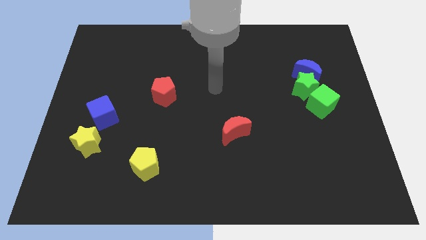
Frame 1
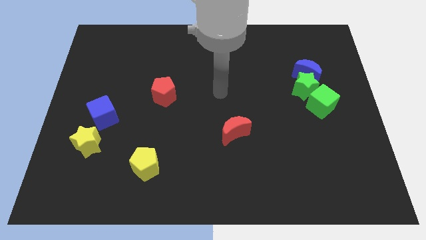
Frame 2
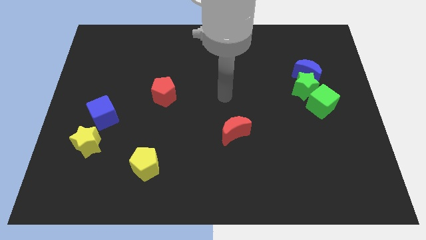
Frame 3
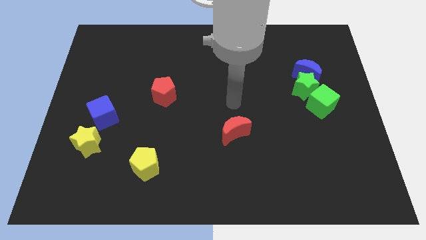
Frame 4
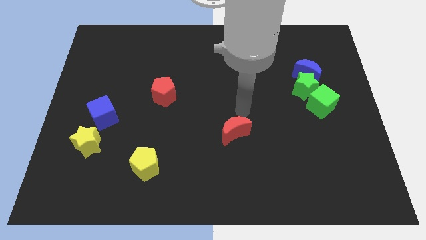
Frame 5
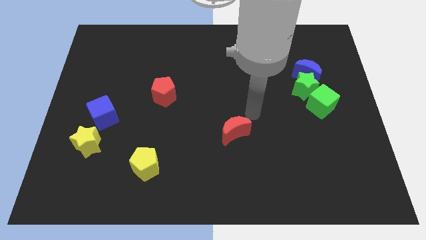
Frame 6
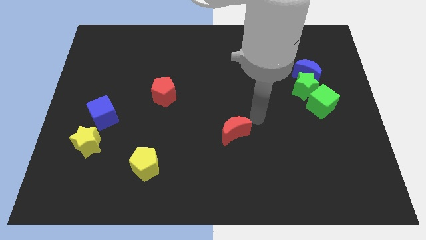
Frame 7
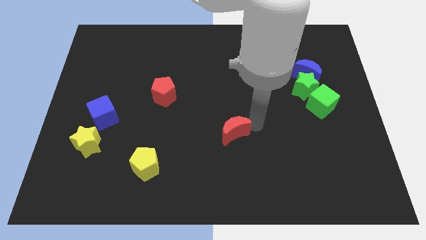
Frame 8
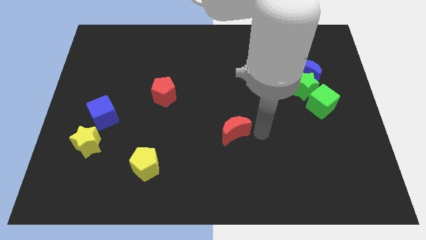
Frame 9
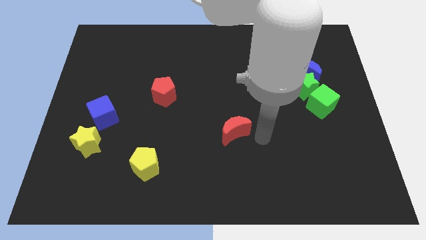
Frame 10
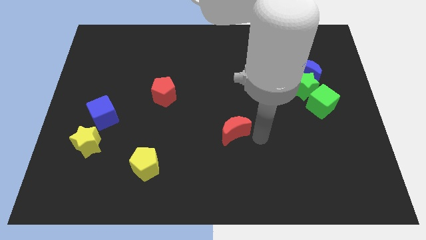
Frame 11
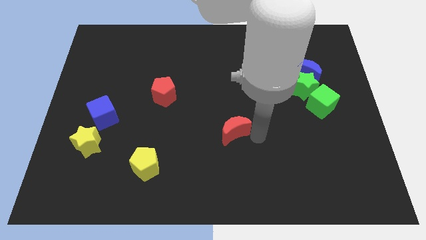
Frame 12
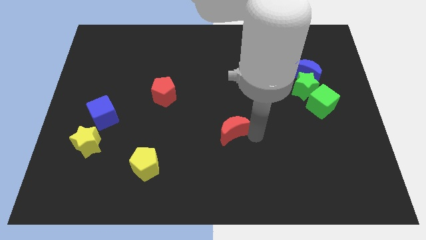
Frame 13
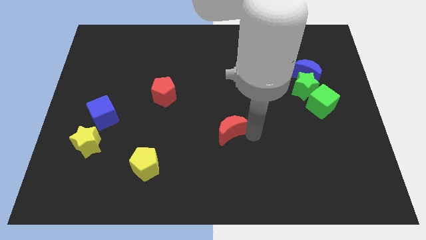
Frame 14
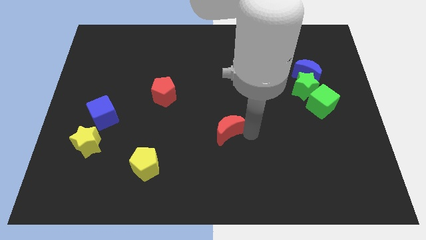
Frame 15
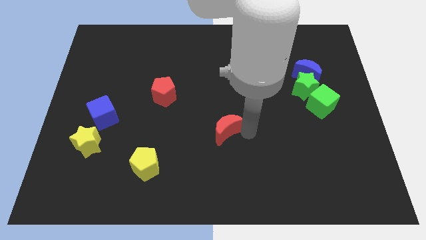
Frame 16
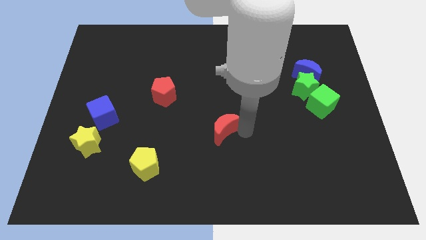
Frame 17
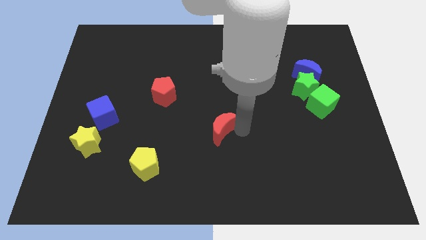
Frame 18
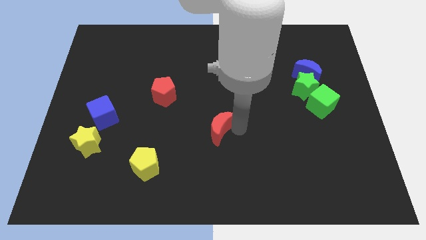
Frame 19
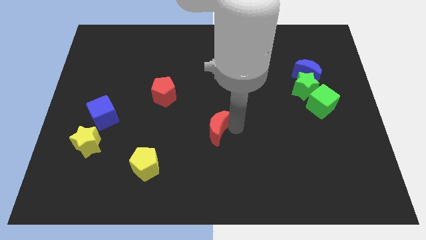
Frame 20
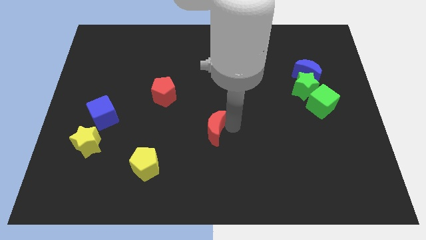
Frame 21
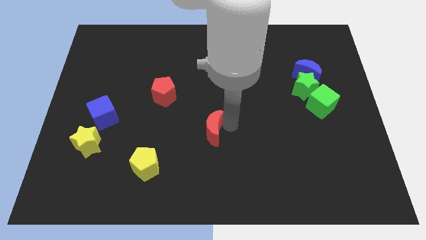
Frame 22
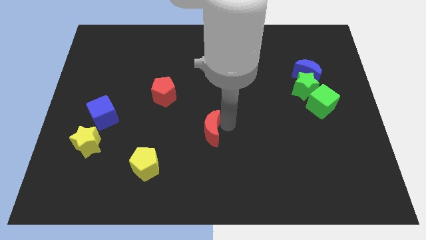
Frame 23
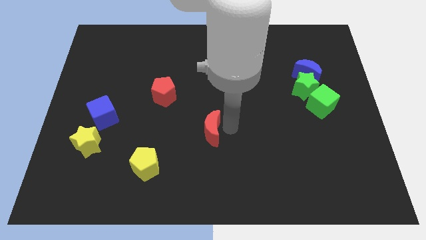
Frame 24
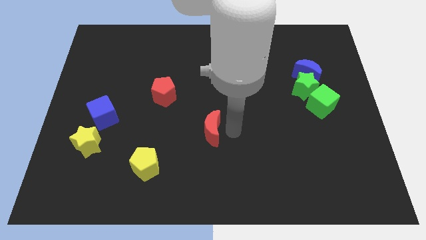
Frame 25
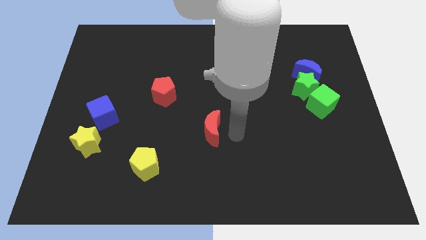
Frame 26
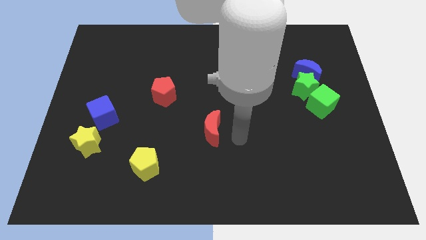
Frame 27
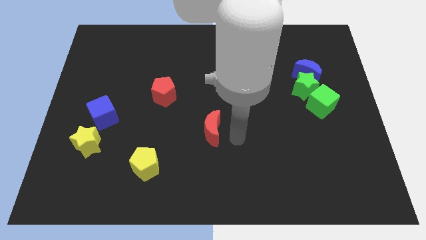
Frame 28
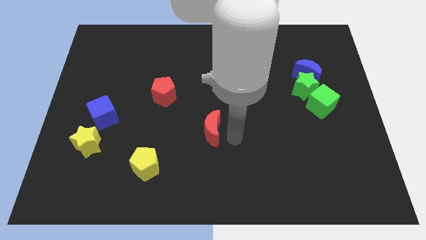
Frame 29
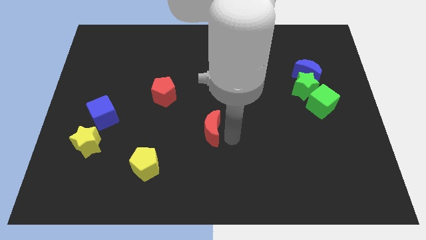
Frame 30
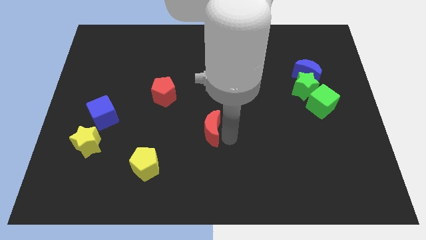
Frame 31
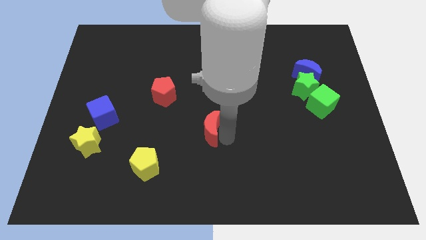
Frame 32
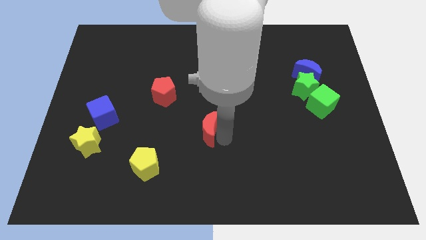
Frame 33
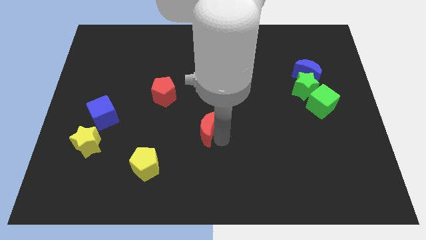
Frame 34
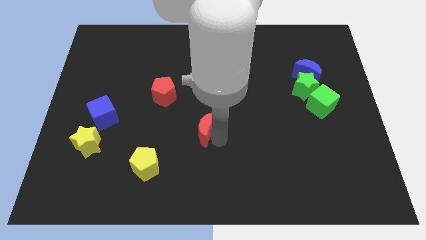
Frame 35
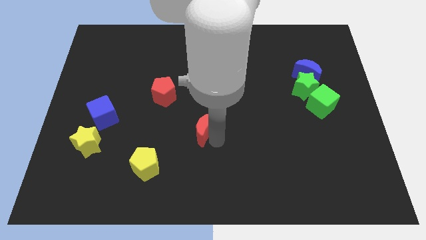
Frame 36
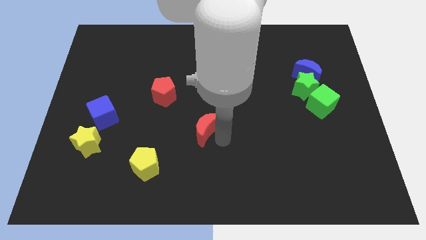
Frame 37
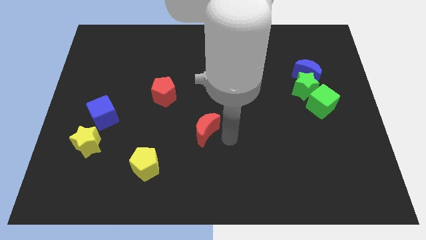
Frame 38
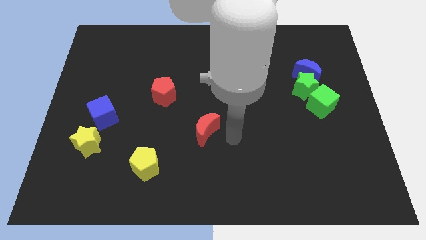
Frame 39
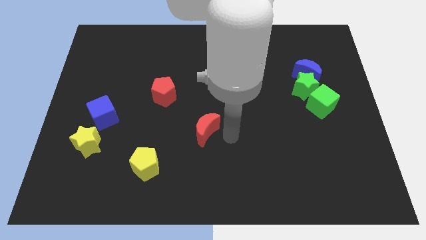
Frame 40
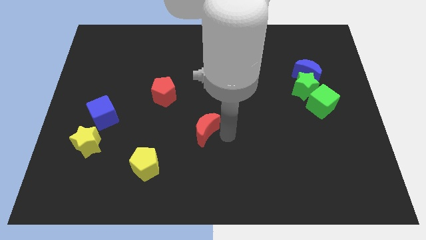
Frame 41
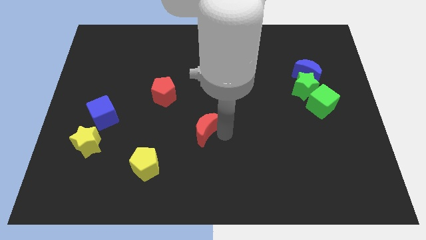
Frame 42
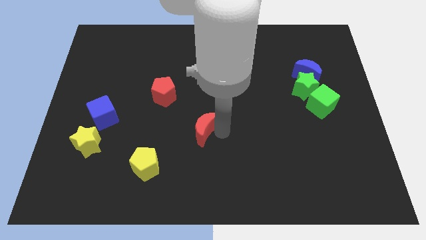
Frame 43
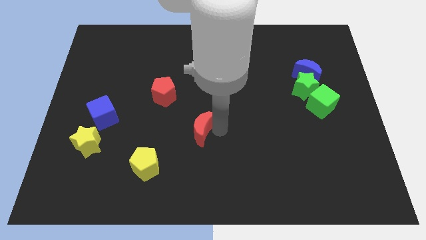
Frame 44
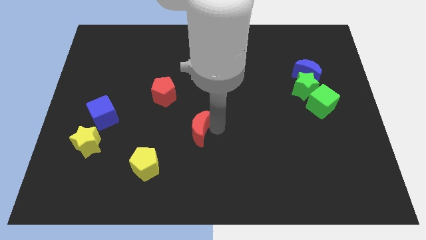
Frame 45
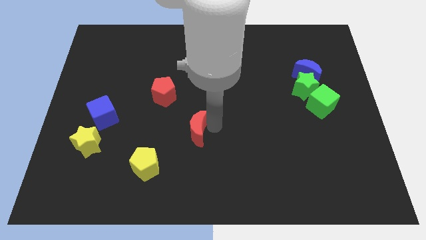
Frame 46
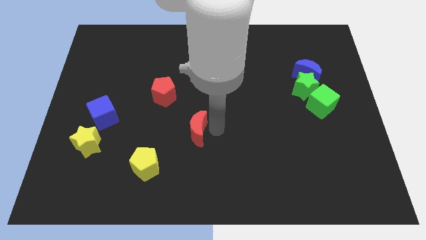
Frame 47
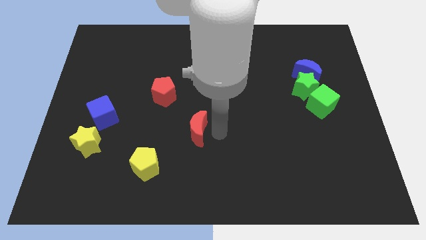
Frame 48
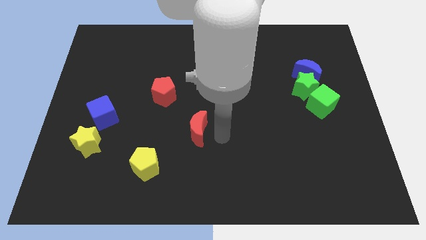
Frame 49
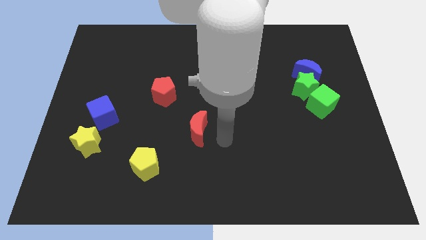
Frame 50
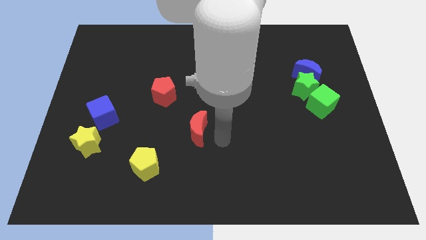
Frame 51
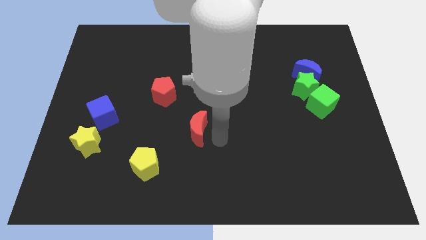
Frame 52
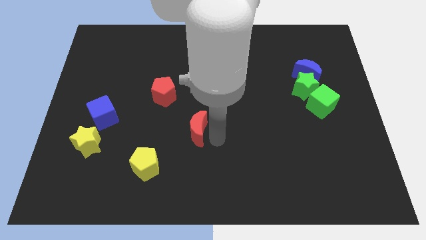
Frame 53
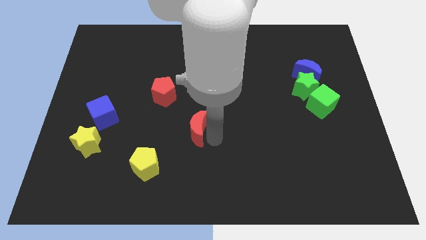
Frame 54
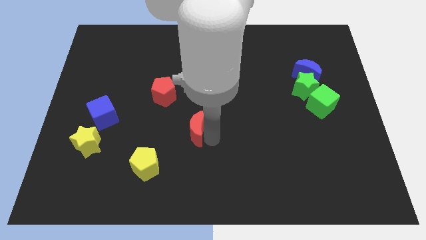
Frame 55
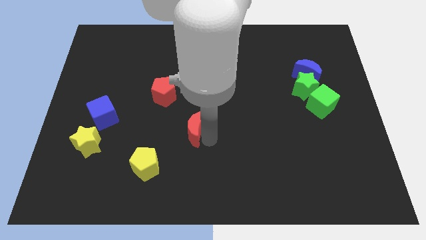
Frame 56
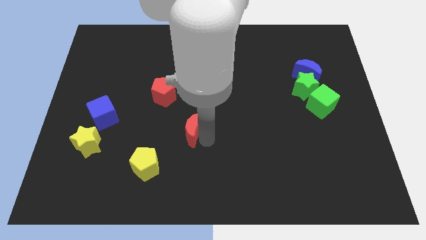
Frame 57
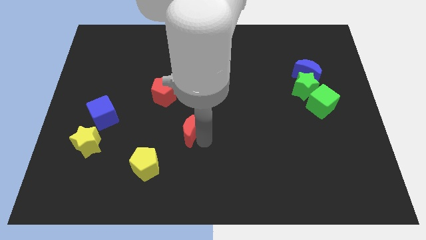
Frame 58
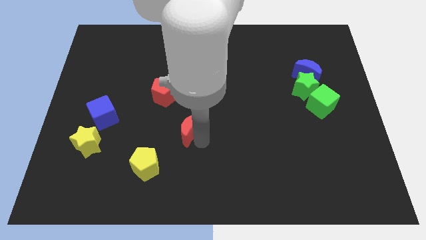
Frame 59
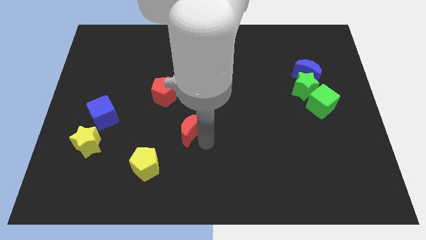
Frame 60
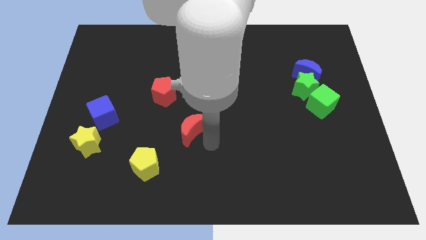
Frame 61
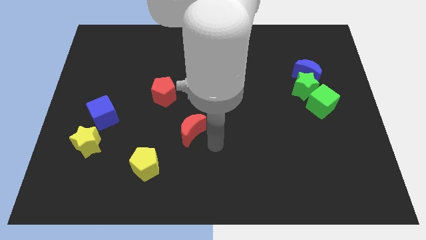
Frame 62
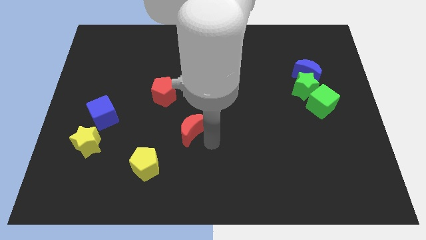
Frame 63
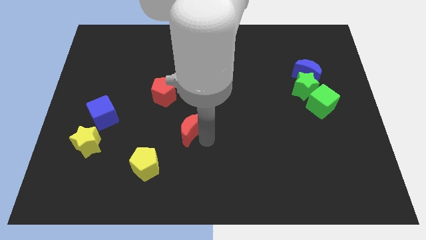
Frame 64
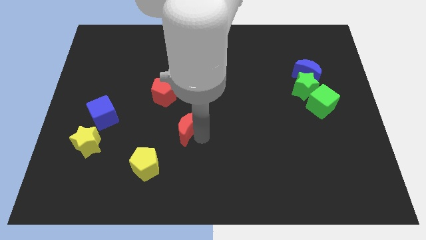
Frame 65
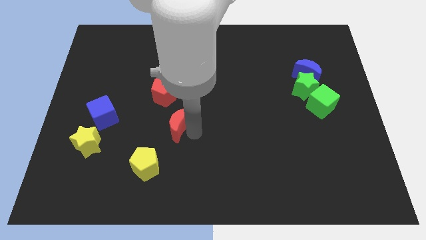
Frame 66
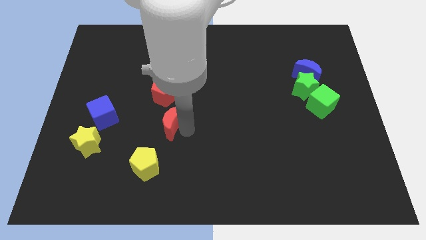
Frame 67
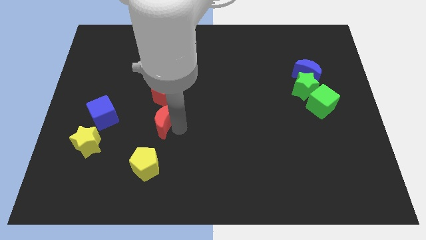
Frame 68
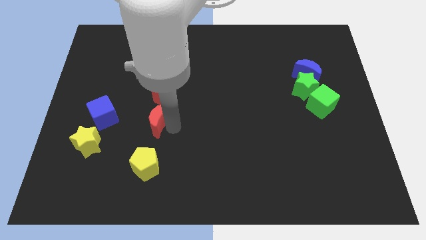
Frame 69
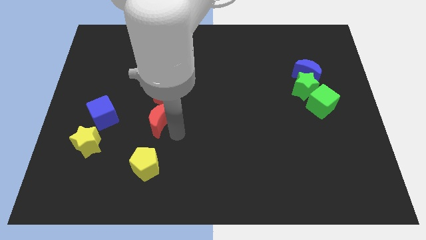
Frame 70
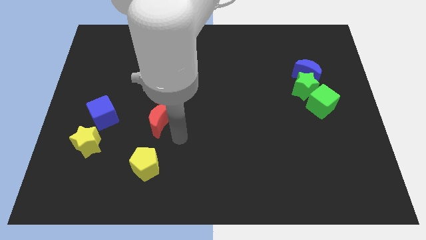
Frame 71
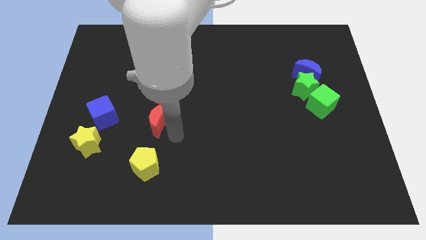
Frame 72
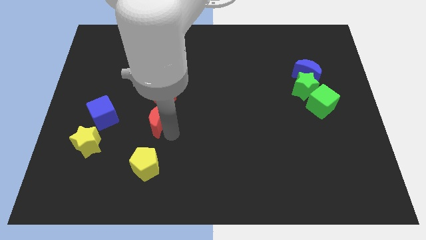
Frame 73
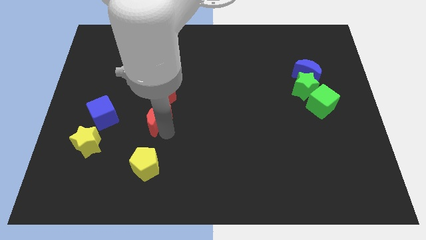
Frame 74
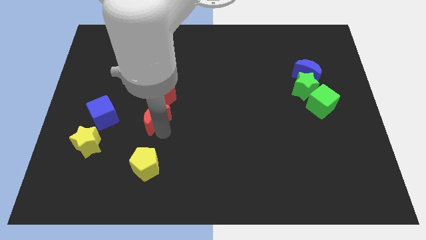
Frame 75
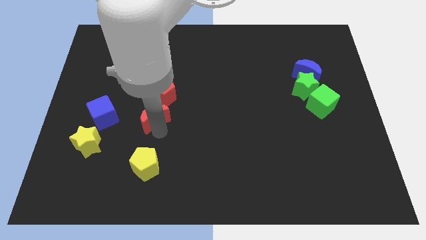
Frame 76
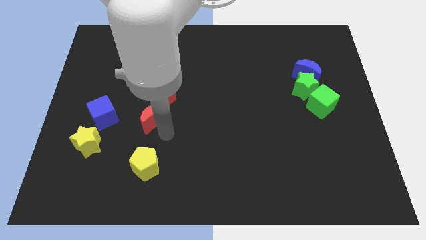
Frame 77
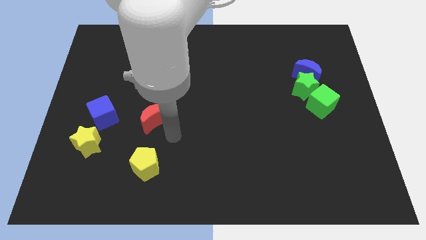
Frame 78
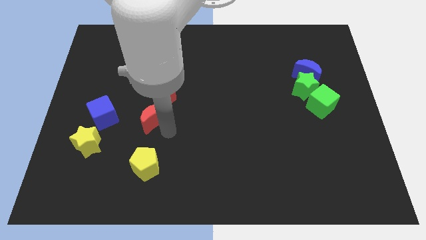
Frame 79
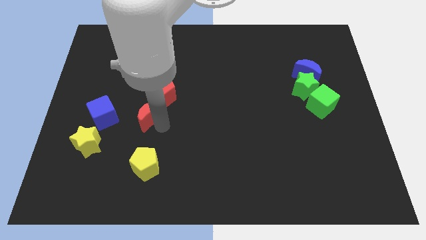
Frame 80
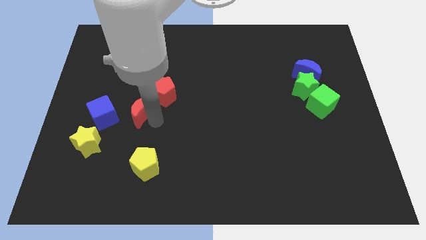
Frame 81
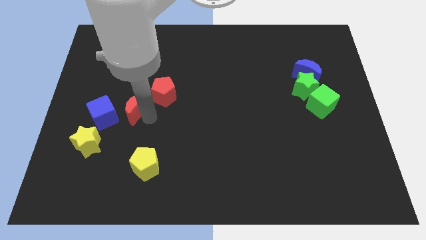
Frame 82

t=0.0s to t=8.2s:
put the red moon to the top right of the blue cube
